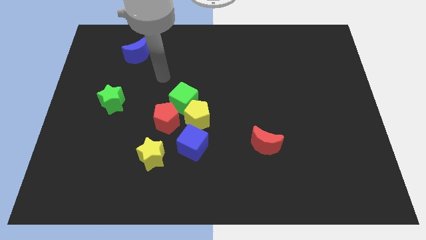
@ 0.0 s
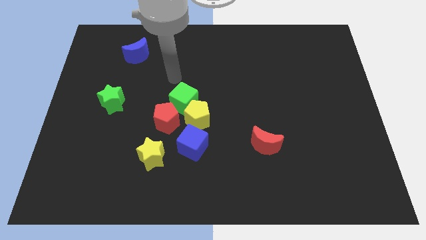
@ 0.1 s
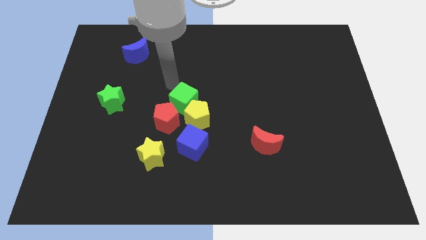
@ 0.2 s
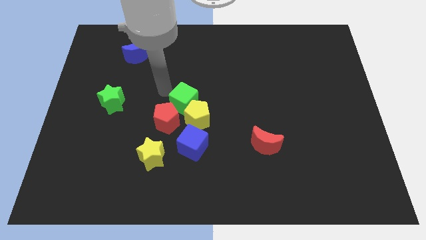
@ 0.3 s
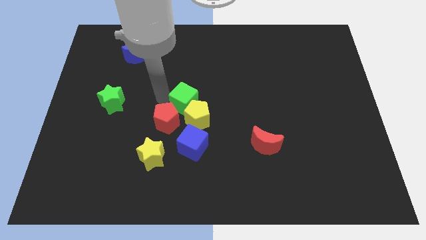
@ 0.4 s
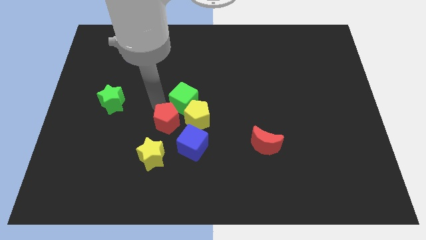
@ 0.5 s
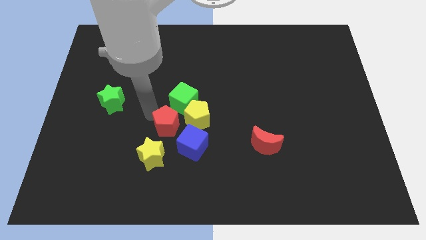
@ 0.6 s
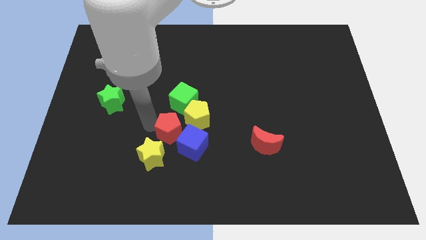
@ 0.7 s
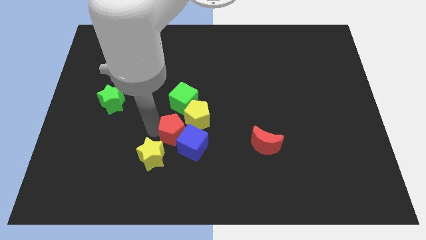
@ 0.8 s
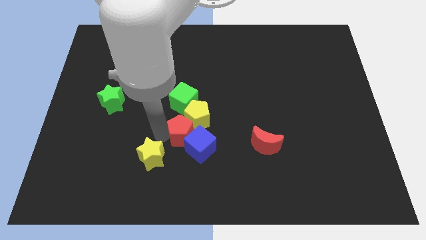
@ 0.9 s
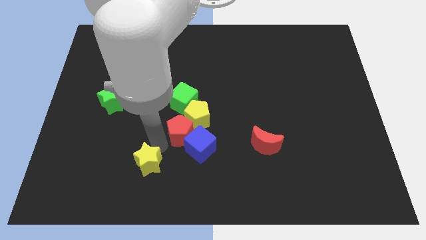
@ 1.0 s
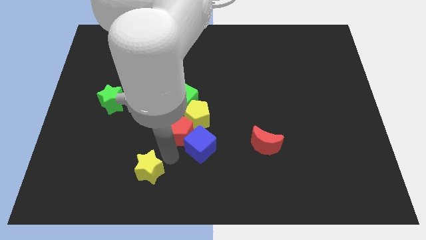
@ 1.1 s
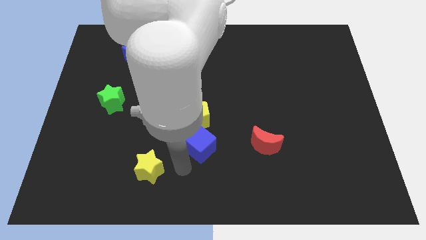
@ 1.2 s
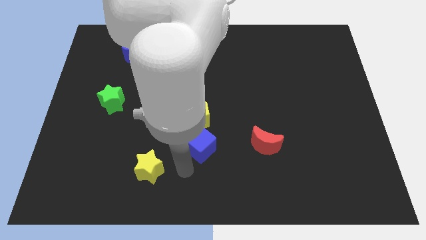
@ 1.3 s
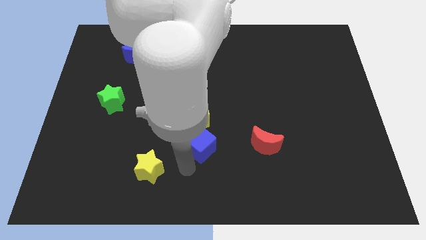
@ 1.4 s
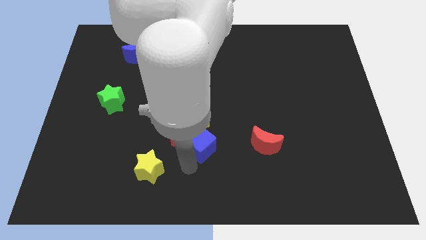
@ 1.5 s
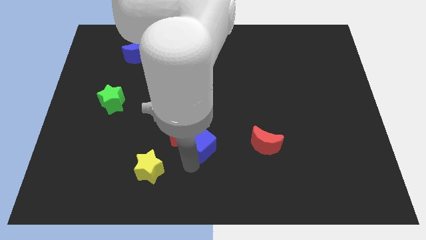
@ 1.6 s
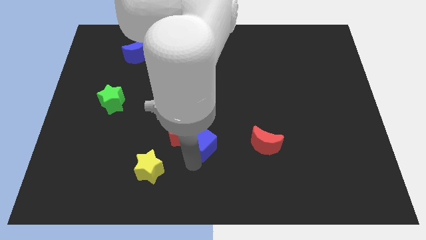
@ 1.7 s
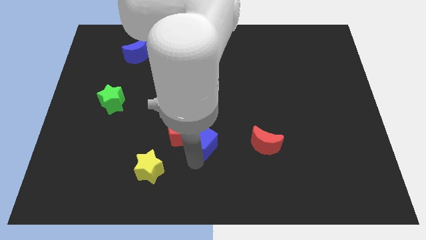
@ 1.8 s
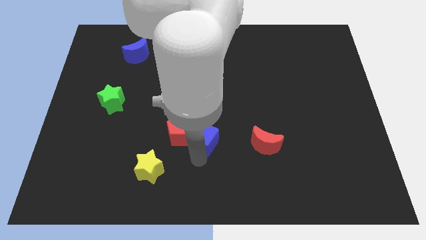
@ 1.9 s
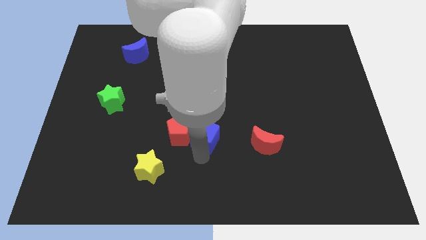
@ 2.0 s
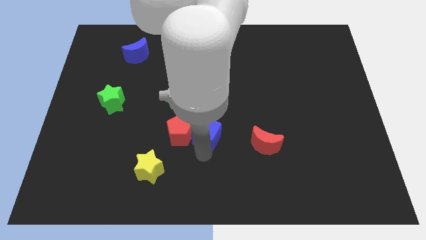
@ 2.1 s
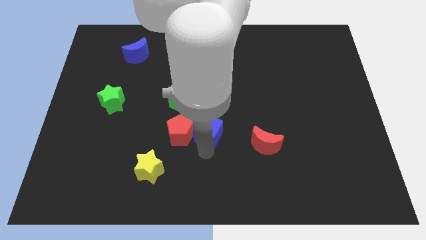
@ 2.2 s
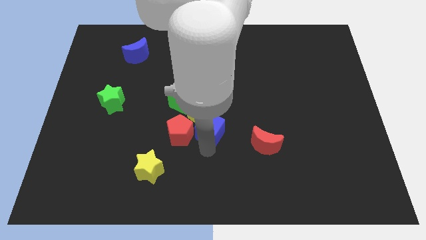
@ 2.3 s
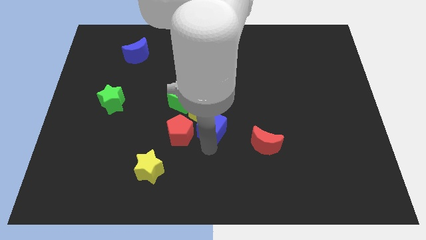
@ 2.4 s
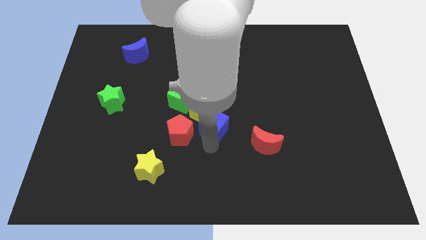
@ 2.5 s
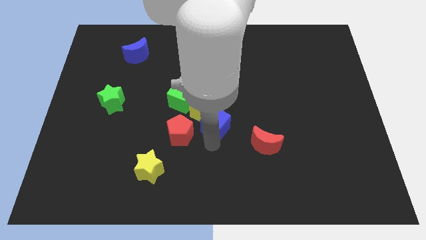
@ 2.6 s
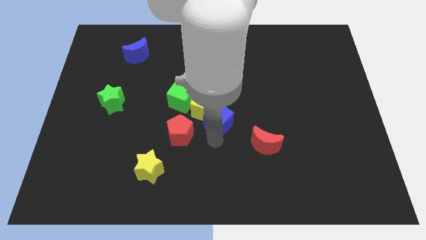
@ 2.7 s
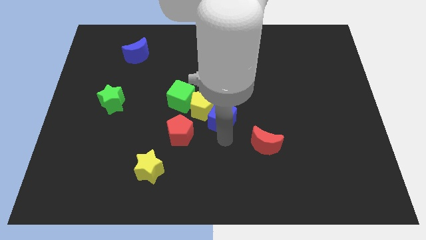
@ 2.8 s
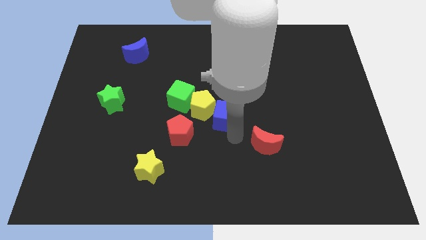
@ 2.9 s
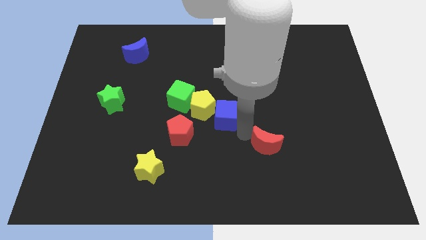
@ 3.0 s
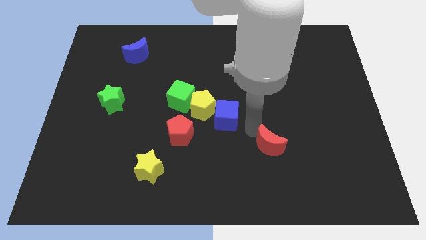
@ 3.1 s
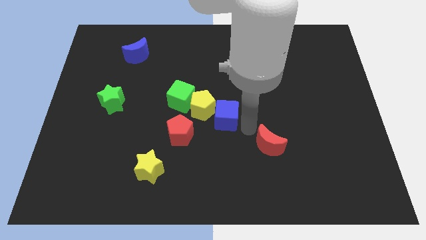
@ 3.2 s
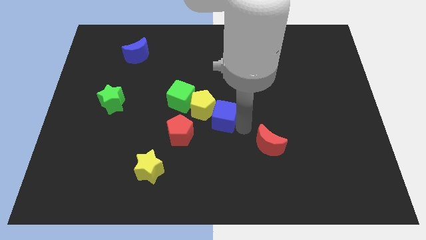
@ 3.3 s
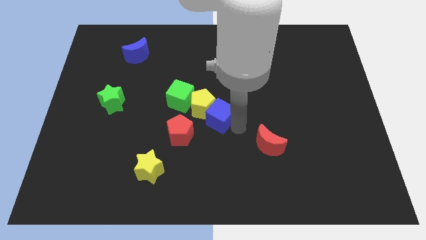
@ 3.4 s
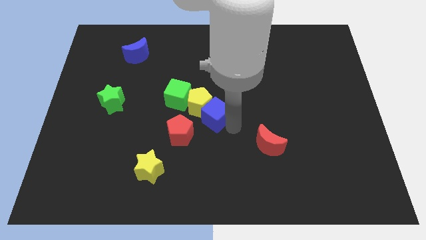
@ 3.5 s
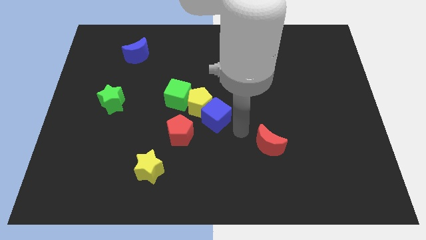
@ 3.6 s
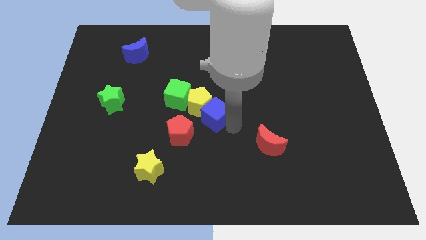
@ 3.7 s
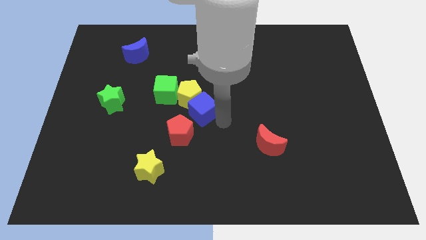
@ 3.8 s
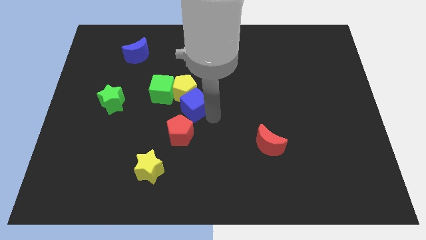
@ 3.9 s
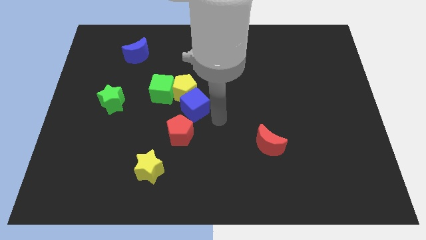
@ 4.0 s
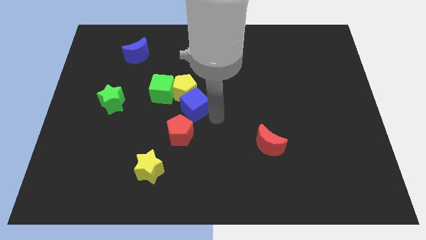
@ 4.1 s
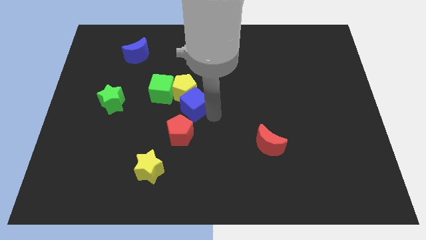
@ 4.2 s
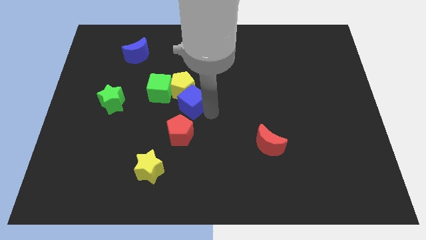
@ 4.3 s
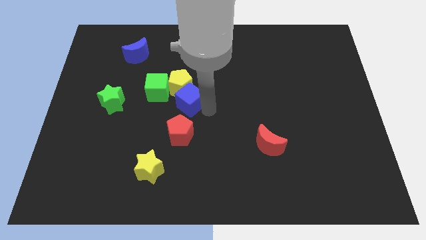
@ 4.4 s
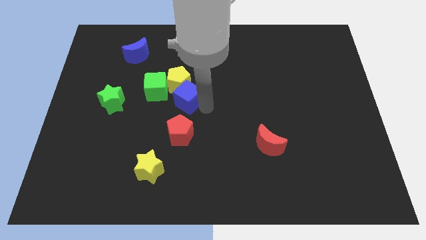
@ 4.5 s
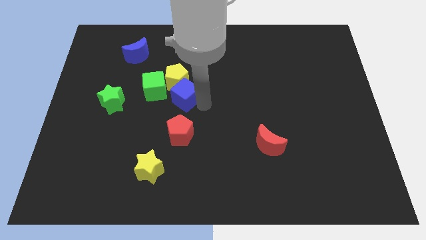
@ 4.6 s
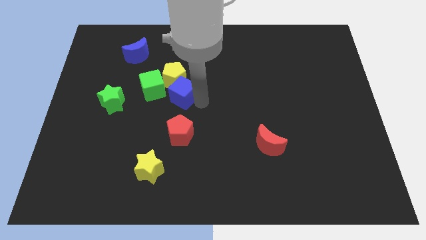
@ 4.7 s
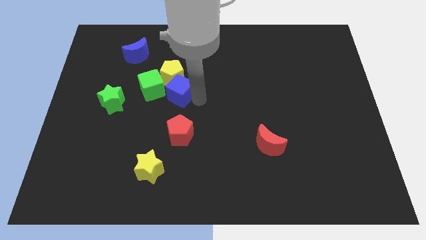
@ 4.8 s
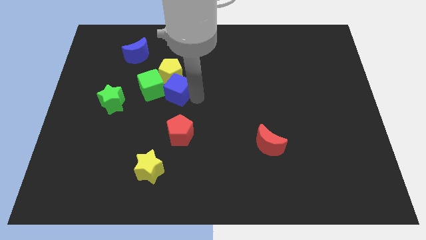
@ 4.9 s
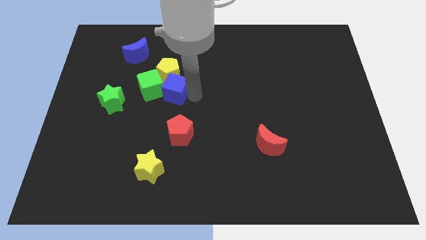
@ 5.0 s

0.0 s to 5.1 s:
put the blue cube to the green cube

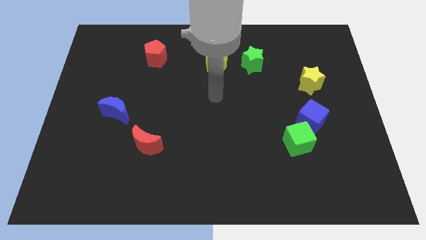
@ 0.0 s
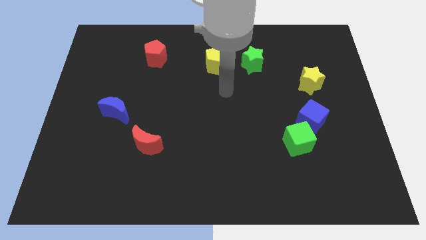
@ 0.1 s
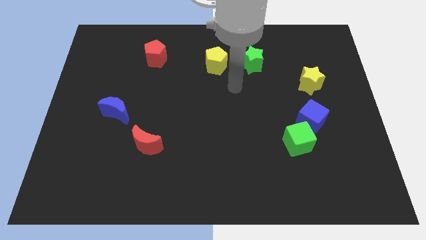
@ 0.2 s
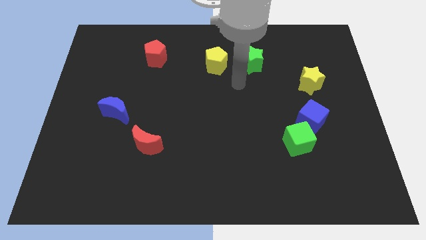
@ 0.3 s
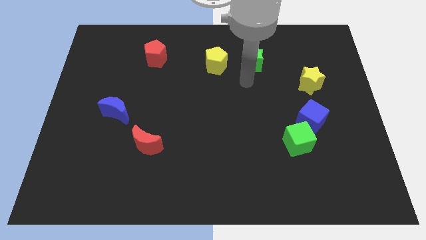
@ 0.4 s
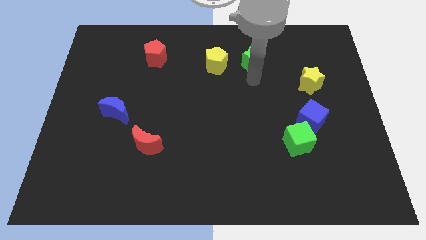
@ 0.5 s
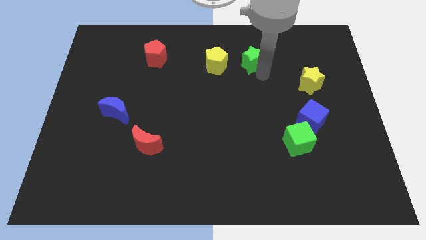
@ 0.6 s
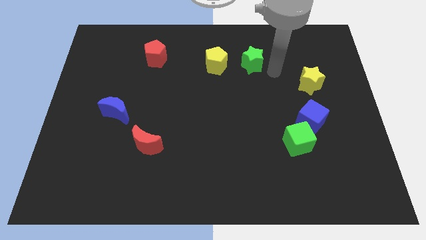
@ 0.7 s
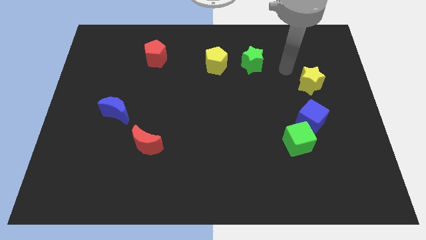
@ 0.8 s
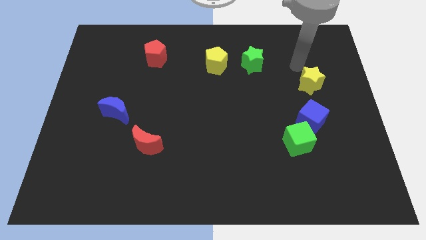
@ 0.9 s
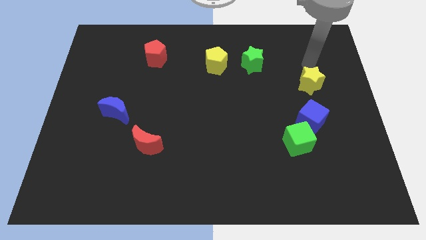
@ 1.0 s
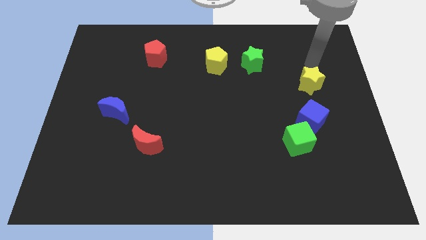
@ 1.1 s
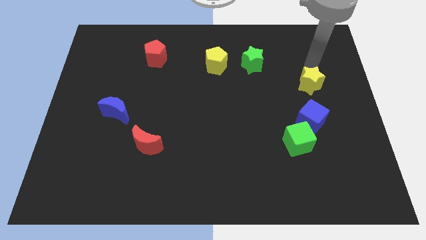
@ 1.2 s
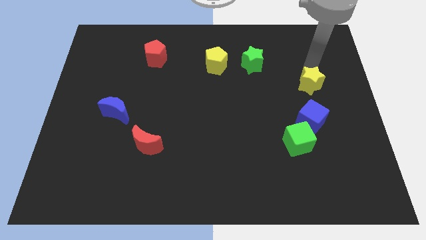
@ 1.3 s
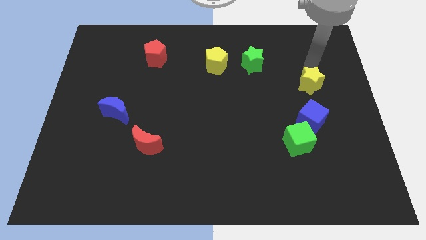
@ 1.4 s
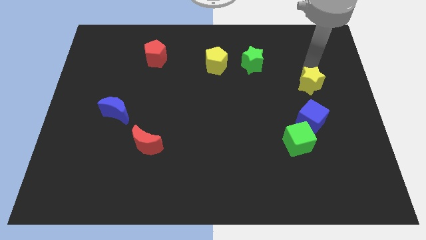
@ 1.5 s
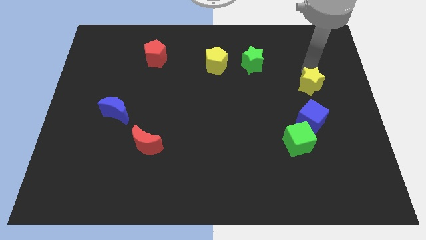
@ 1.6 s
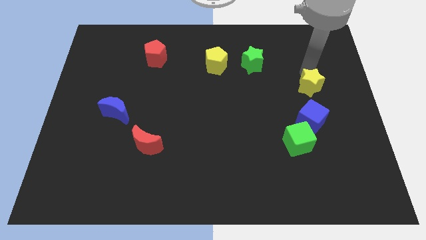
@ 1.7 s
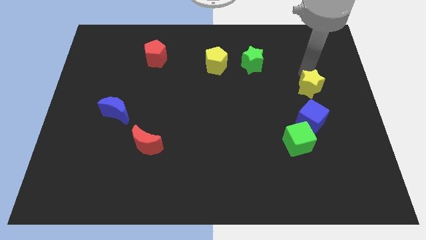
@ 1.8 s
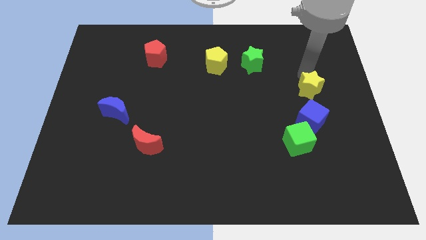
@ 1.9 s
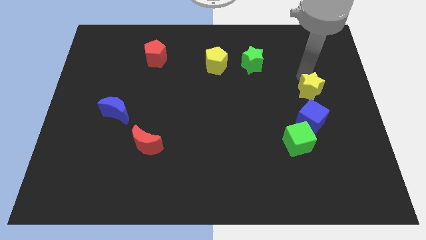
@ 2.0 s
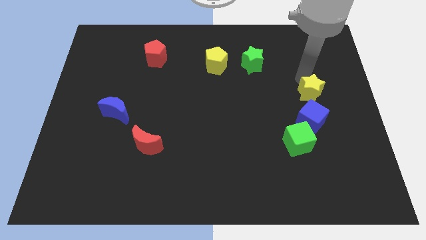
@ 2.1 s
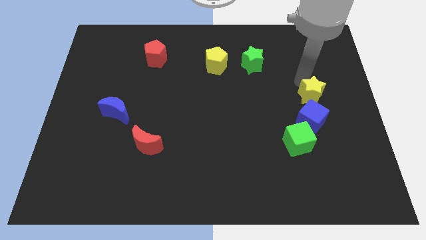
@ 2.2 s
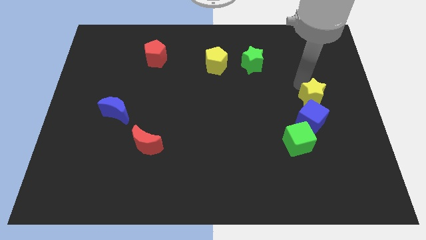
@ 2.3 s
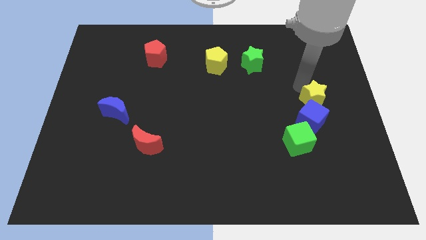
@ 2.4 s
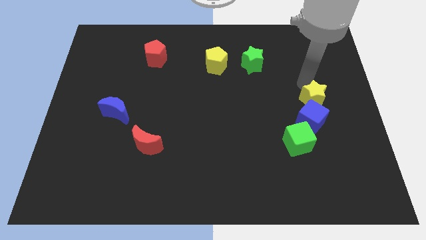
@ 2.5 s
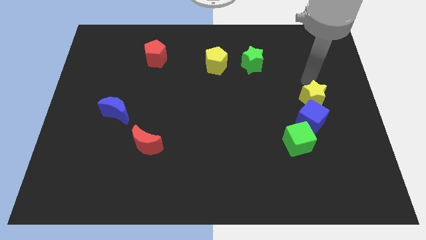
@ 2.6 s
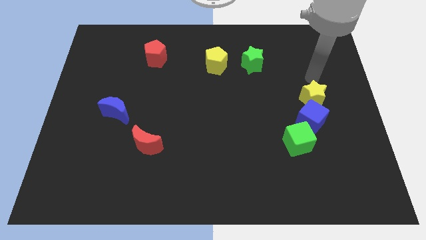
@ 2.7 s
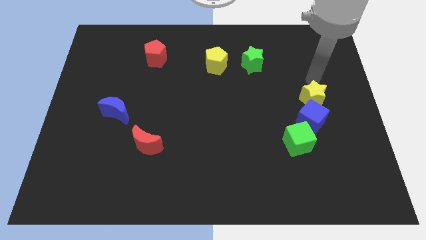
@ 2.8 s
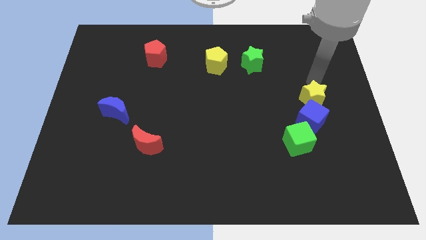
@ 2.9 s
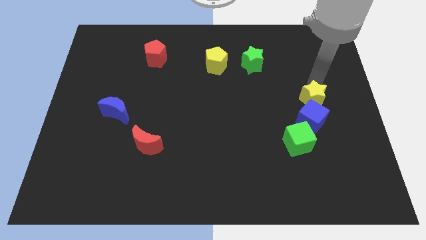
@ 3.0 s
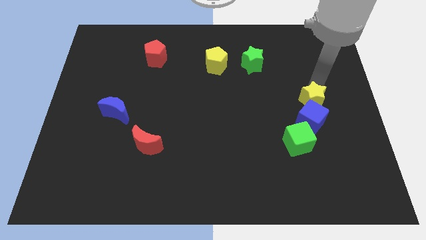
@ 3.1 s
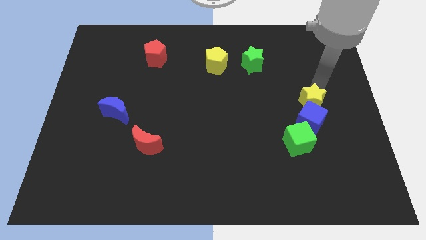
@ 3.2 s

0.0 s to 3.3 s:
move the yellow star towards the blue cube

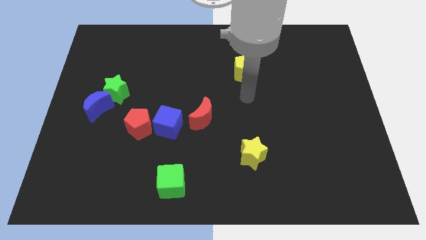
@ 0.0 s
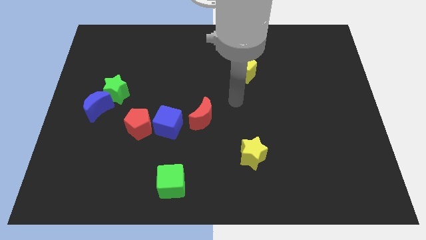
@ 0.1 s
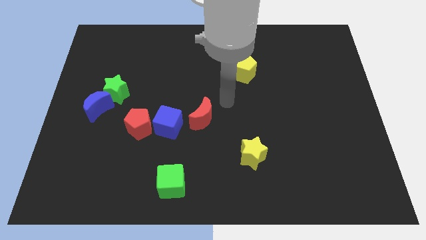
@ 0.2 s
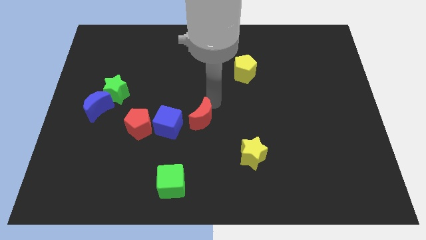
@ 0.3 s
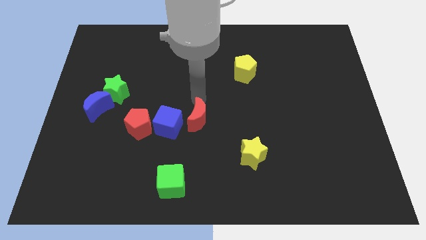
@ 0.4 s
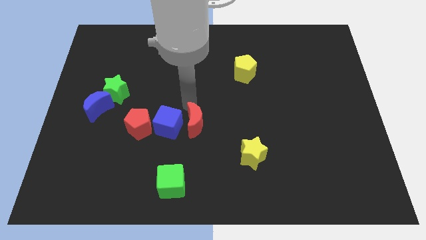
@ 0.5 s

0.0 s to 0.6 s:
put the blue cube to the red moon
